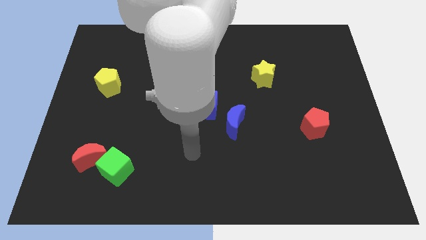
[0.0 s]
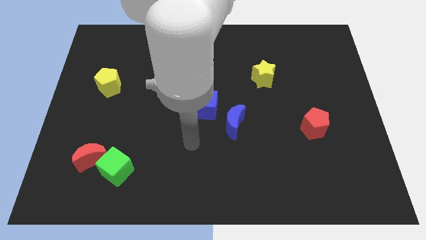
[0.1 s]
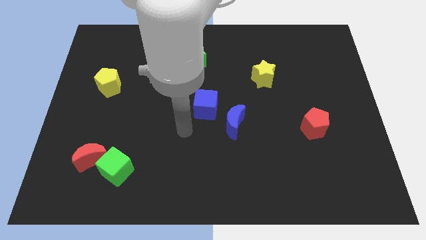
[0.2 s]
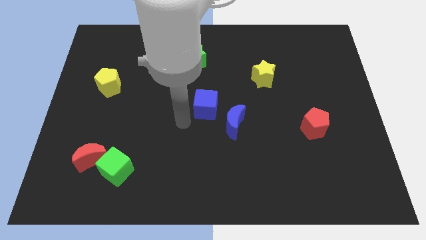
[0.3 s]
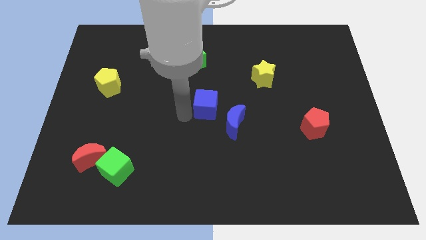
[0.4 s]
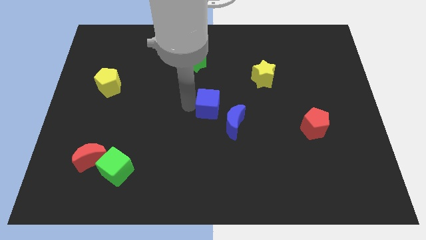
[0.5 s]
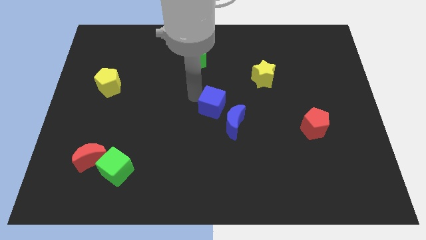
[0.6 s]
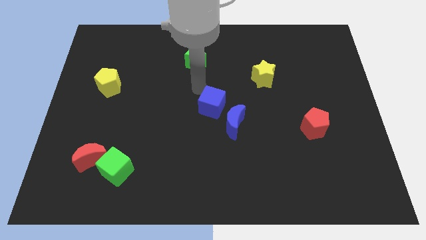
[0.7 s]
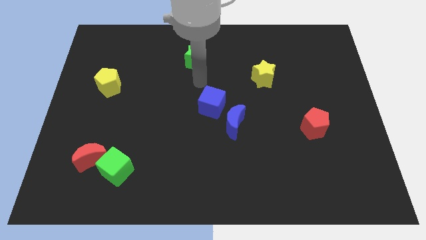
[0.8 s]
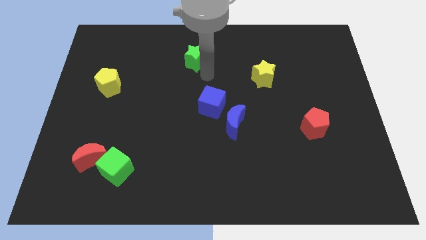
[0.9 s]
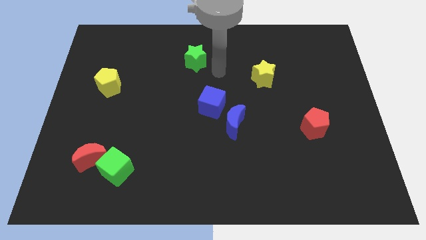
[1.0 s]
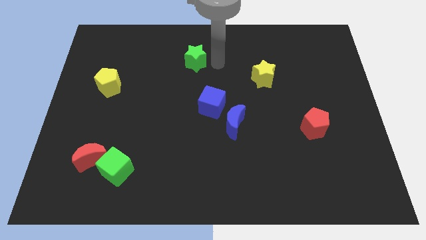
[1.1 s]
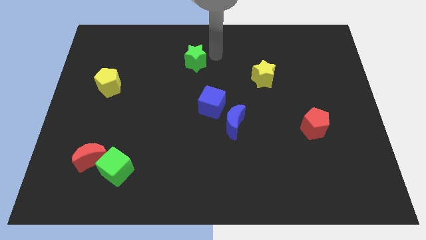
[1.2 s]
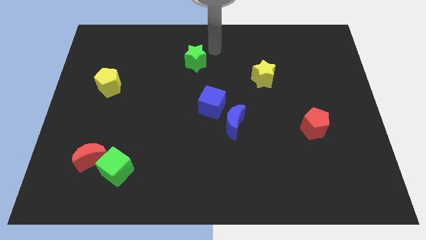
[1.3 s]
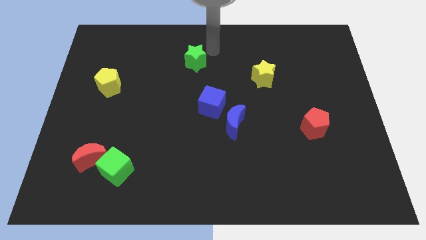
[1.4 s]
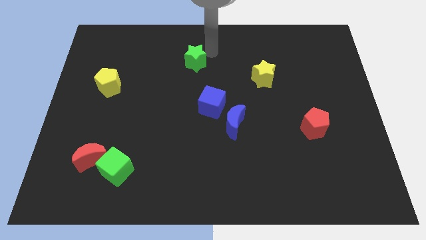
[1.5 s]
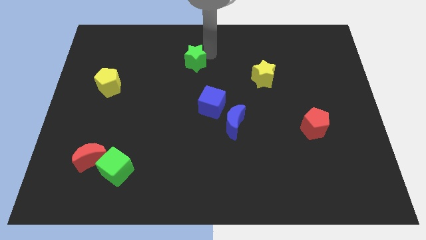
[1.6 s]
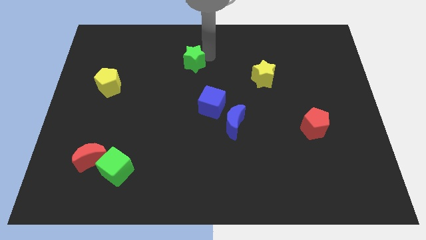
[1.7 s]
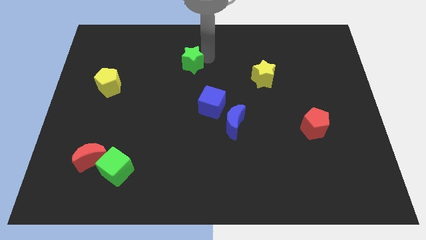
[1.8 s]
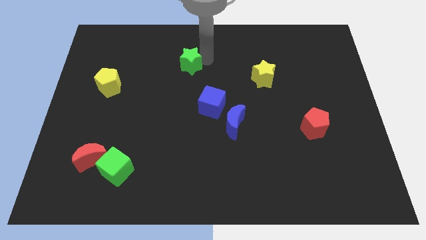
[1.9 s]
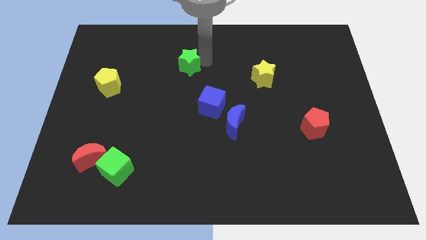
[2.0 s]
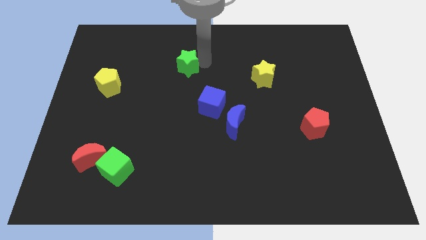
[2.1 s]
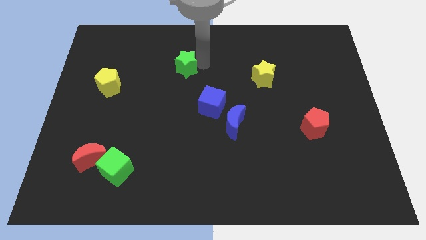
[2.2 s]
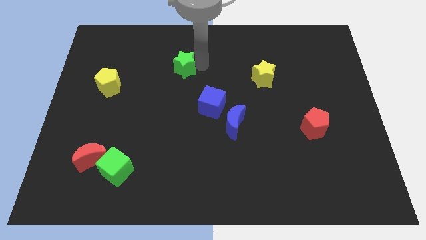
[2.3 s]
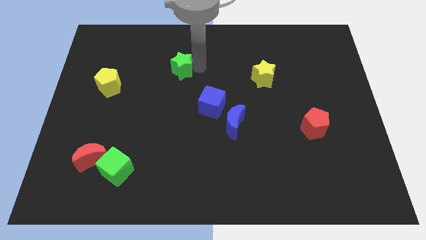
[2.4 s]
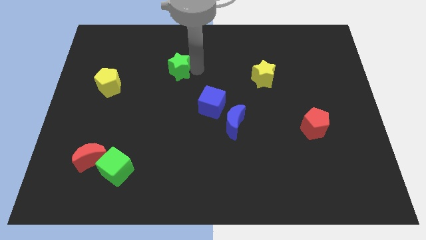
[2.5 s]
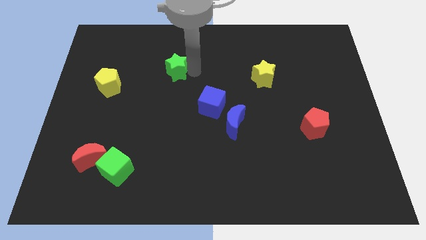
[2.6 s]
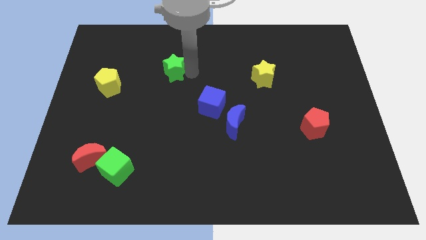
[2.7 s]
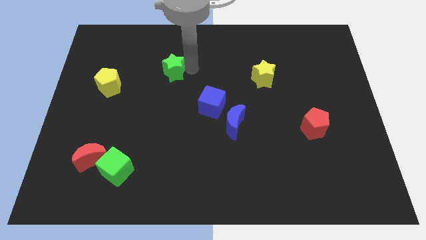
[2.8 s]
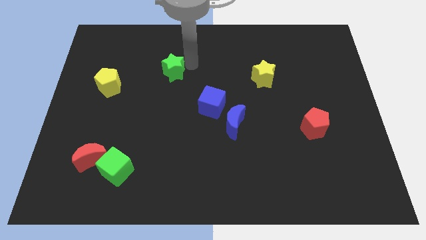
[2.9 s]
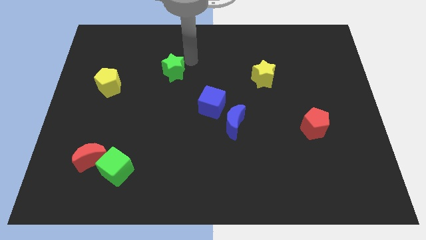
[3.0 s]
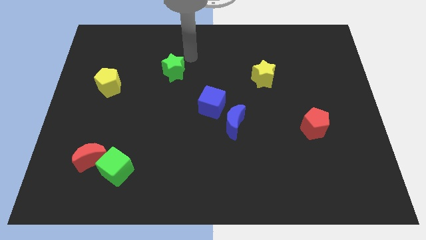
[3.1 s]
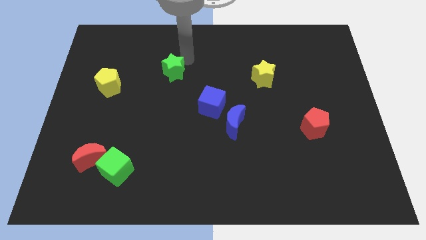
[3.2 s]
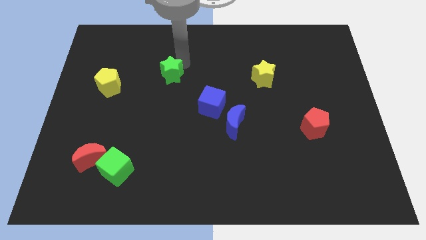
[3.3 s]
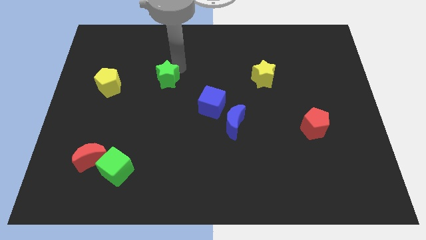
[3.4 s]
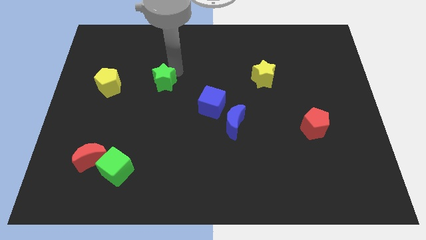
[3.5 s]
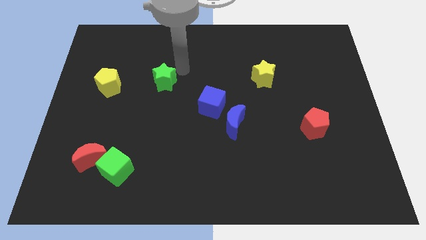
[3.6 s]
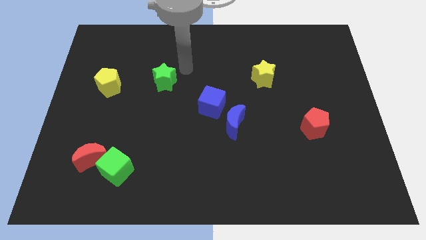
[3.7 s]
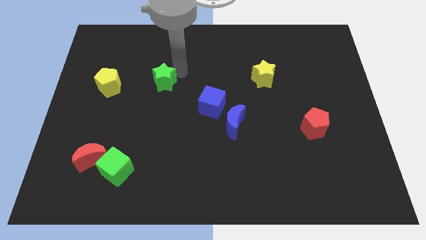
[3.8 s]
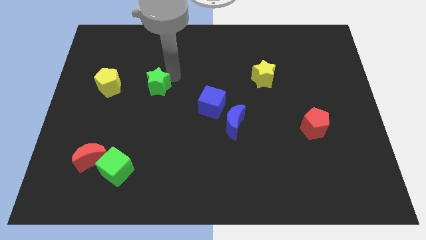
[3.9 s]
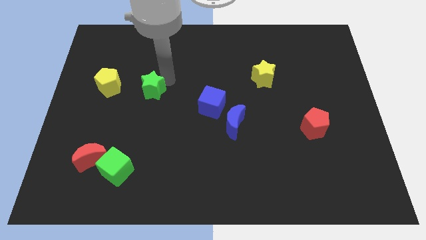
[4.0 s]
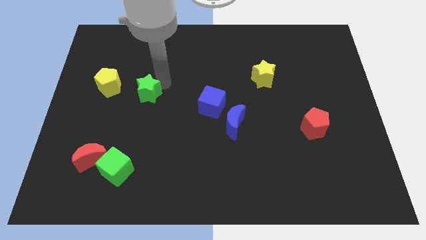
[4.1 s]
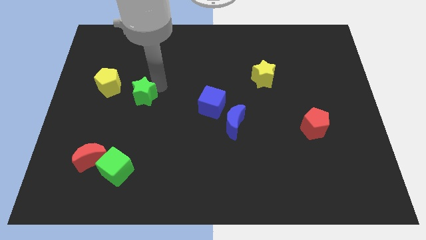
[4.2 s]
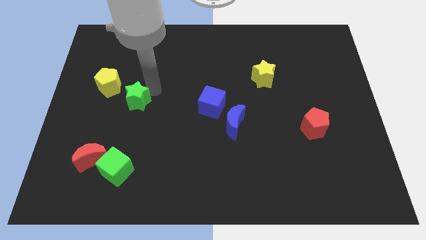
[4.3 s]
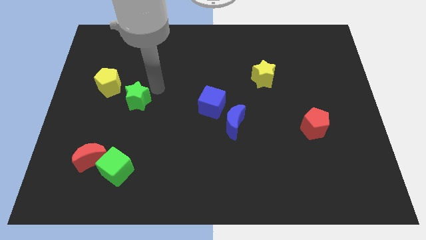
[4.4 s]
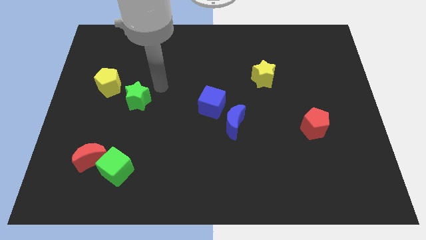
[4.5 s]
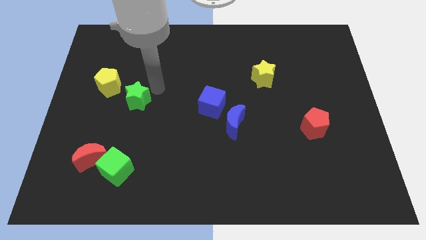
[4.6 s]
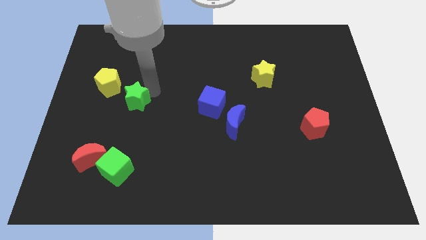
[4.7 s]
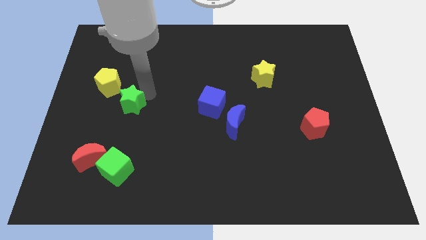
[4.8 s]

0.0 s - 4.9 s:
slide the green star downwards and to the left

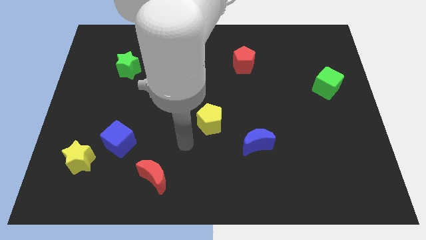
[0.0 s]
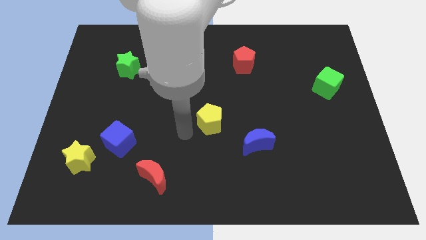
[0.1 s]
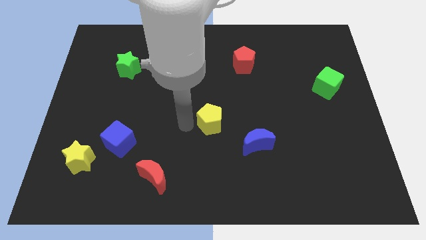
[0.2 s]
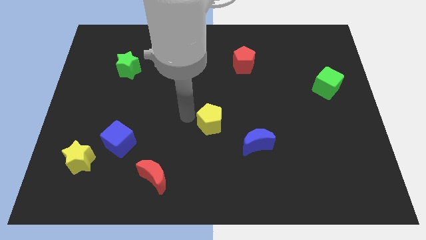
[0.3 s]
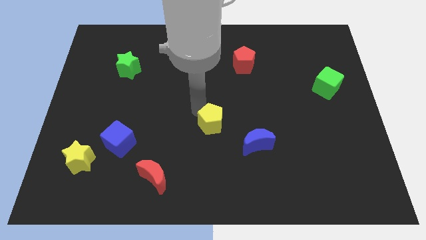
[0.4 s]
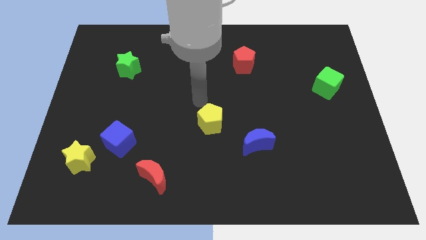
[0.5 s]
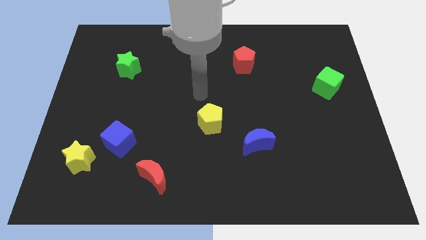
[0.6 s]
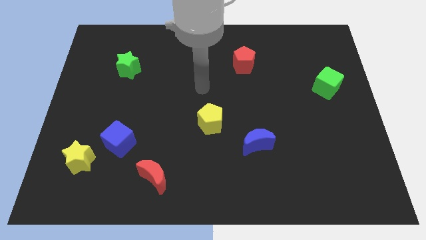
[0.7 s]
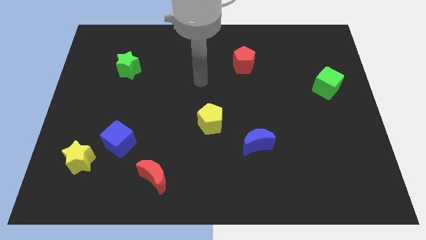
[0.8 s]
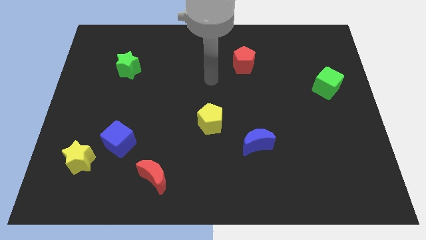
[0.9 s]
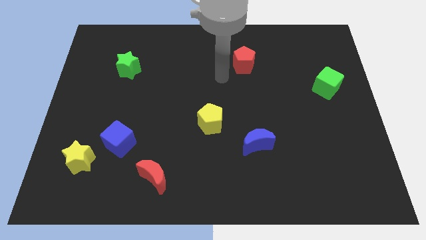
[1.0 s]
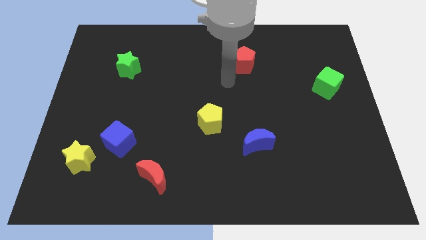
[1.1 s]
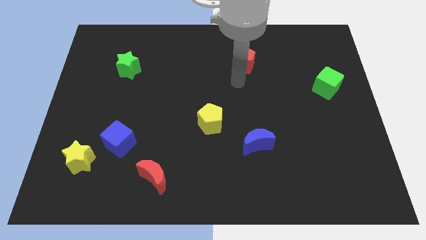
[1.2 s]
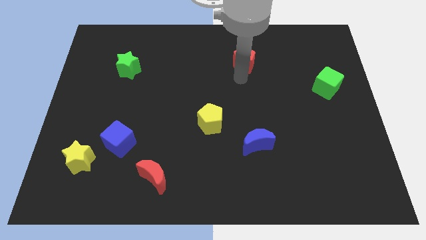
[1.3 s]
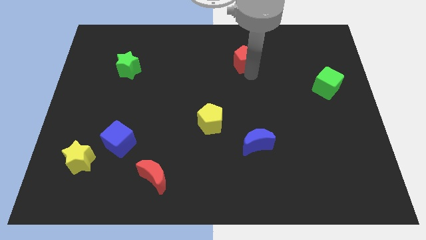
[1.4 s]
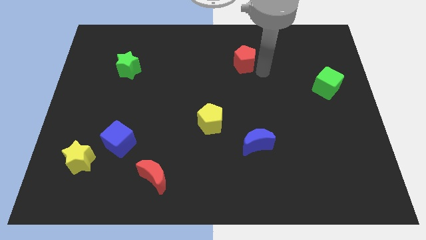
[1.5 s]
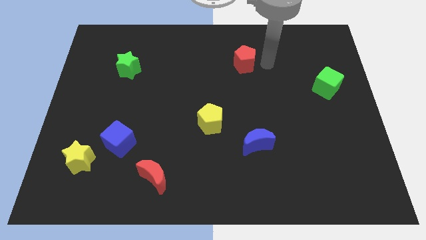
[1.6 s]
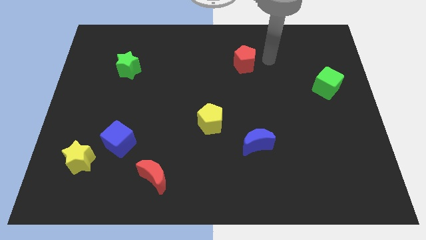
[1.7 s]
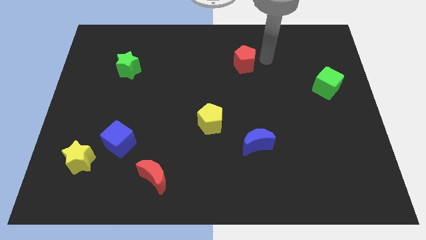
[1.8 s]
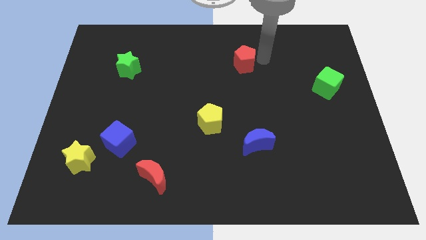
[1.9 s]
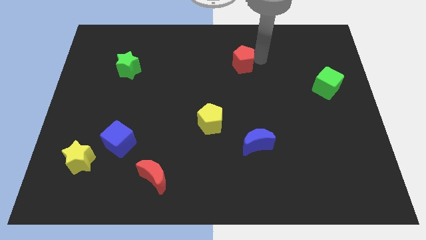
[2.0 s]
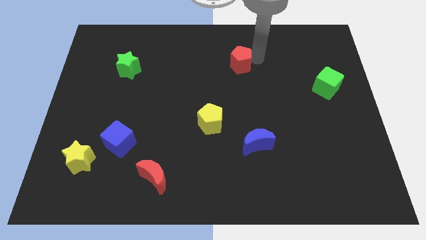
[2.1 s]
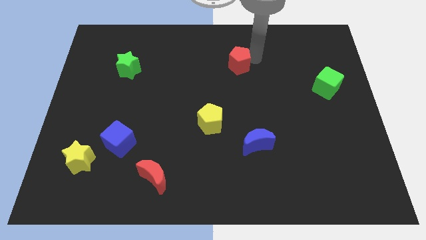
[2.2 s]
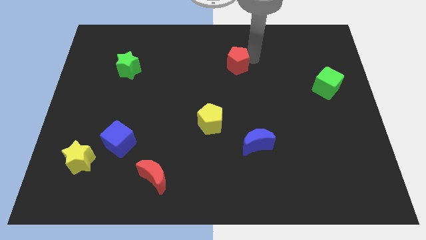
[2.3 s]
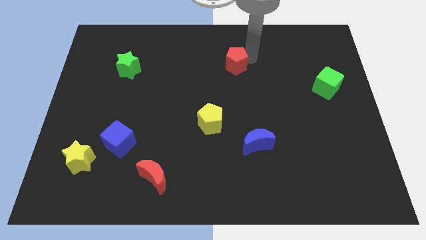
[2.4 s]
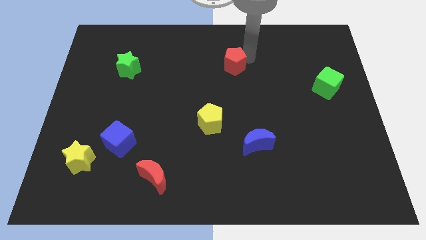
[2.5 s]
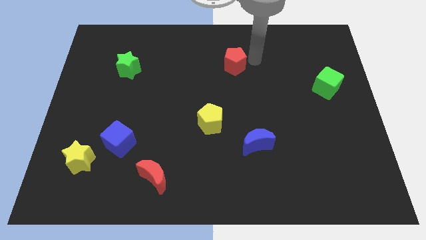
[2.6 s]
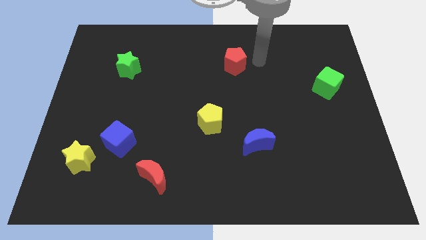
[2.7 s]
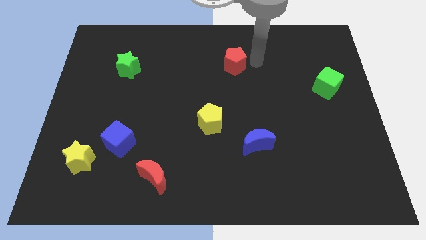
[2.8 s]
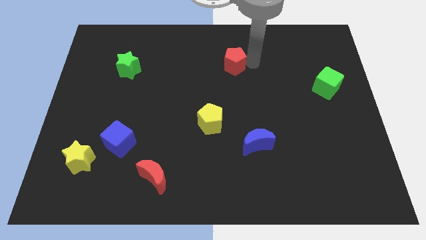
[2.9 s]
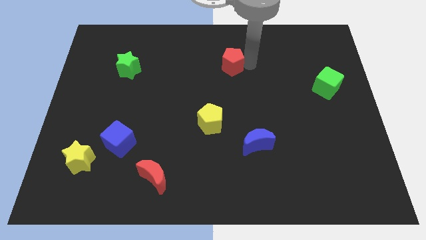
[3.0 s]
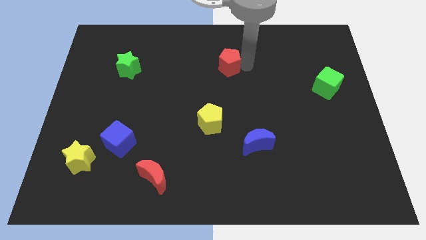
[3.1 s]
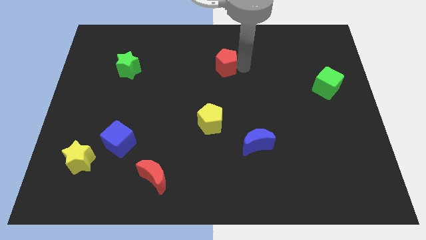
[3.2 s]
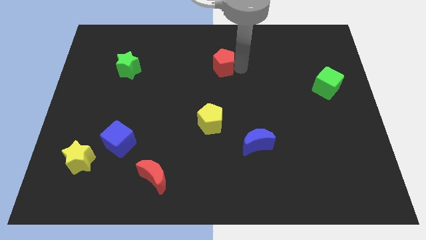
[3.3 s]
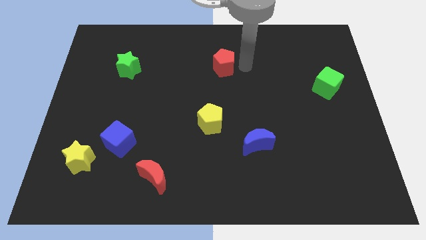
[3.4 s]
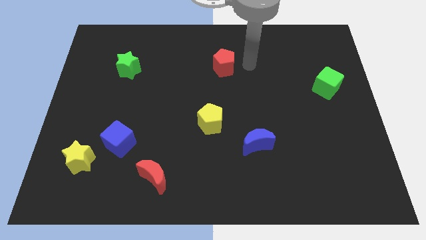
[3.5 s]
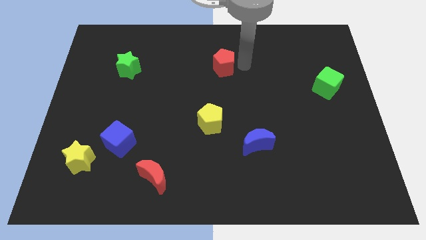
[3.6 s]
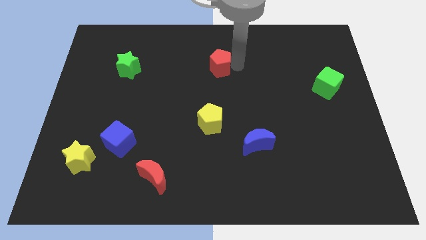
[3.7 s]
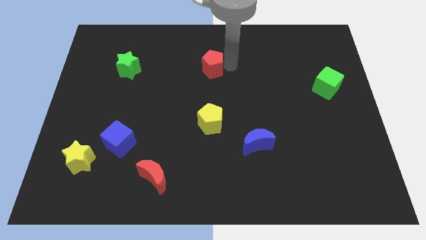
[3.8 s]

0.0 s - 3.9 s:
move the red pentagon a little bit left
